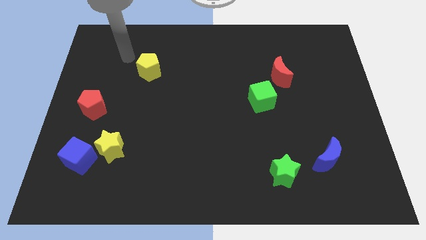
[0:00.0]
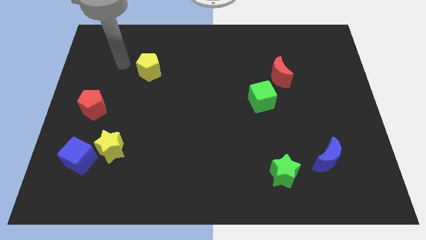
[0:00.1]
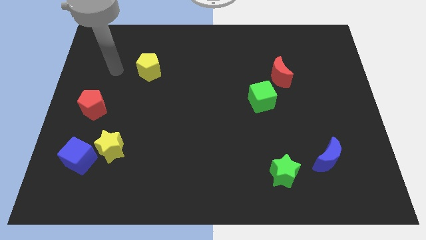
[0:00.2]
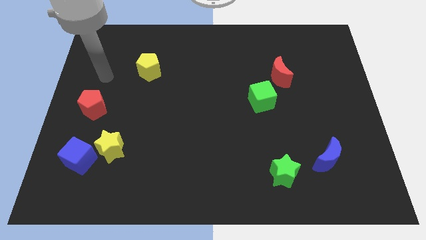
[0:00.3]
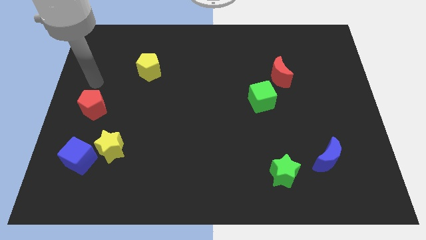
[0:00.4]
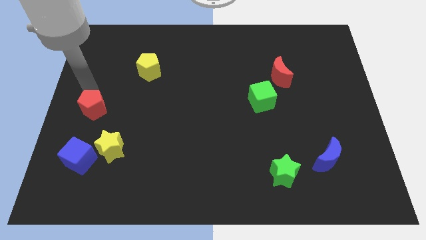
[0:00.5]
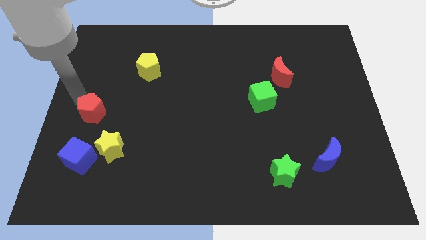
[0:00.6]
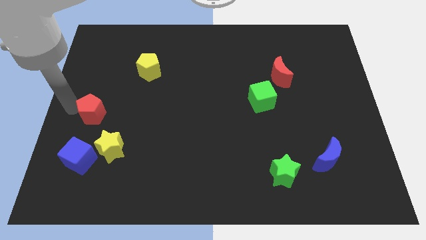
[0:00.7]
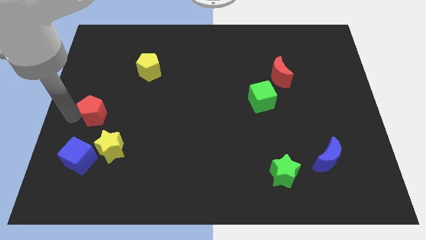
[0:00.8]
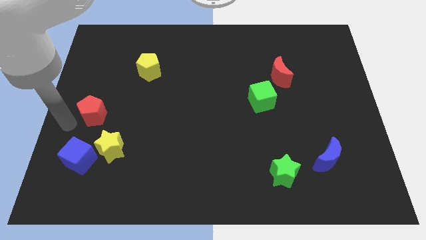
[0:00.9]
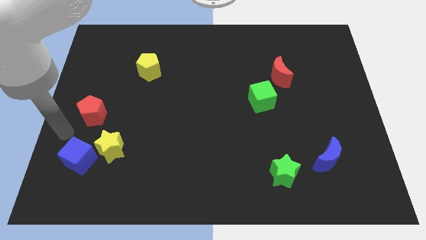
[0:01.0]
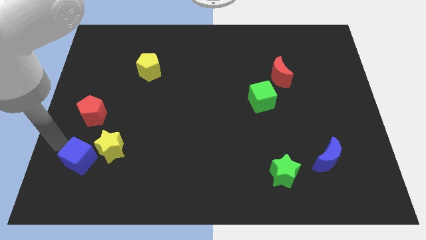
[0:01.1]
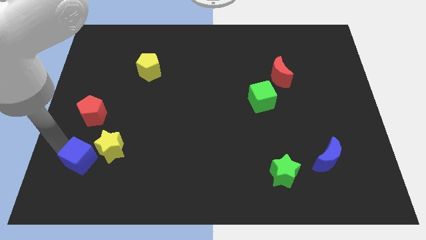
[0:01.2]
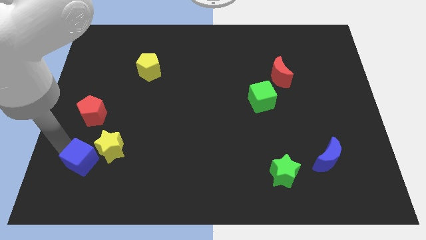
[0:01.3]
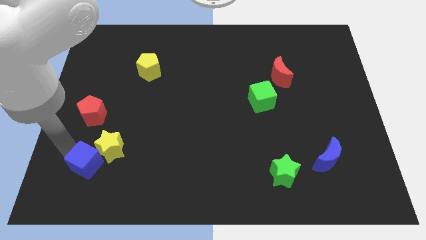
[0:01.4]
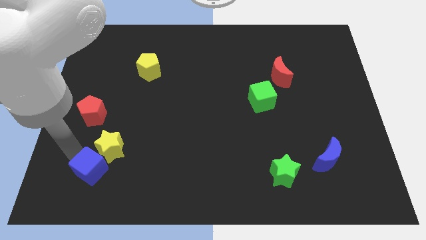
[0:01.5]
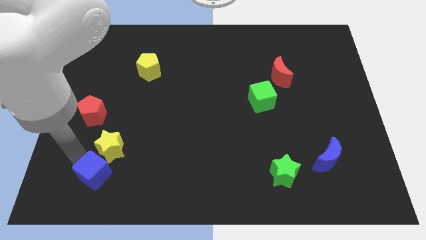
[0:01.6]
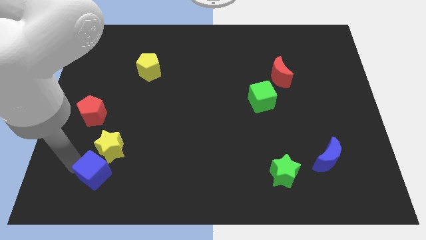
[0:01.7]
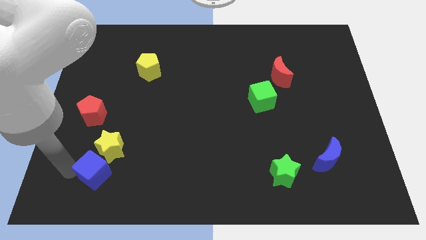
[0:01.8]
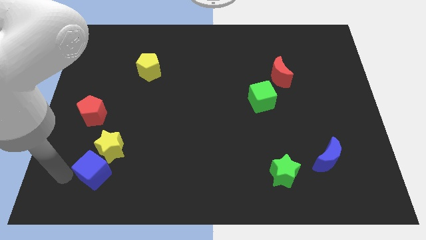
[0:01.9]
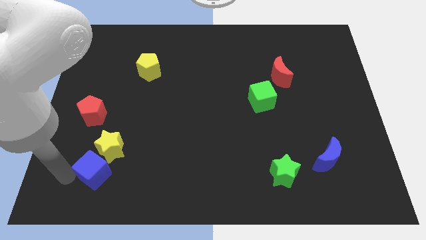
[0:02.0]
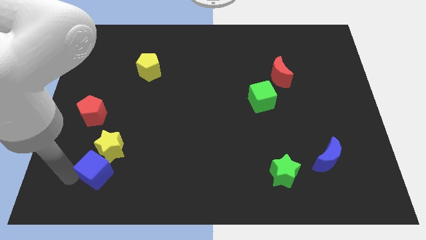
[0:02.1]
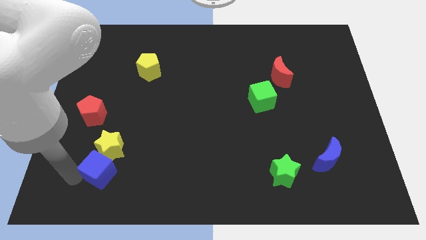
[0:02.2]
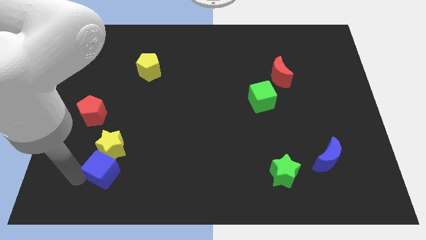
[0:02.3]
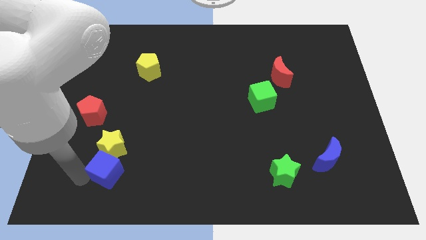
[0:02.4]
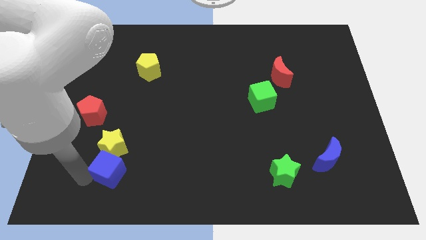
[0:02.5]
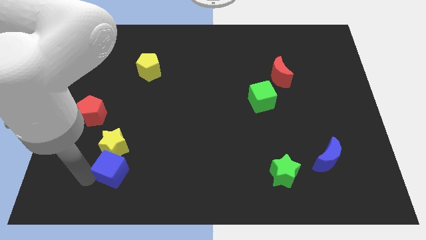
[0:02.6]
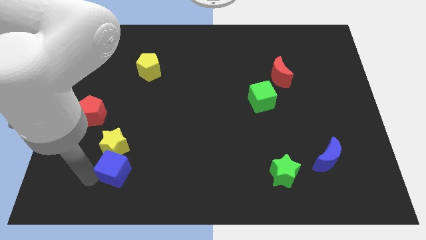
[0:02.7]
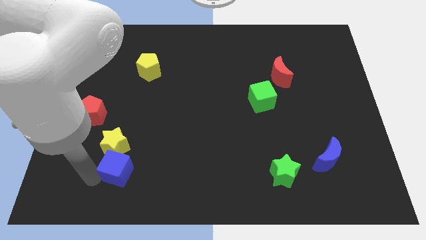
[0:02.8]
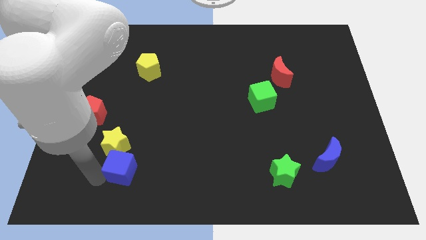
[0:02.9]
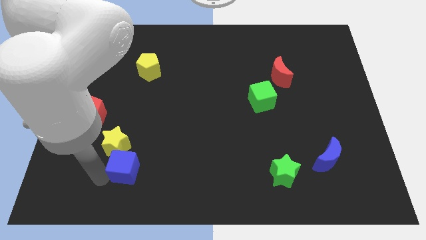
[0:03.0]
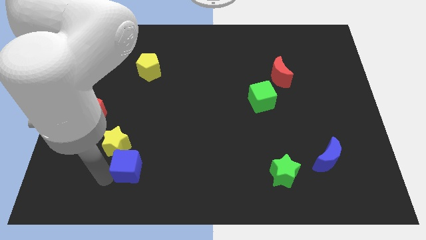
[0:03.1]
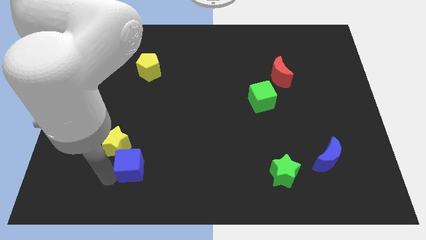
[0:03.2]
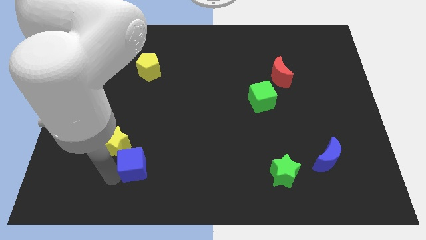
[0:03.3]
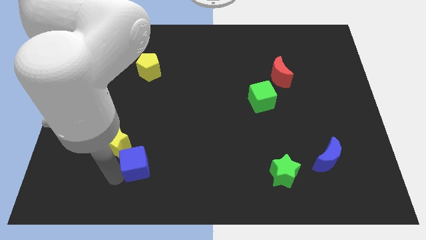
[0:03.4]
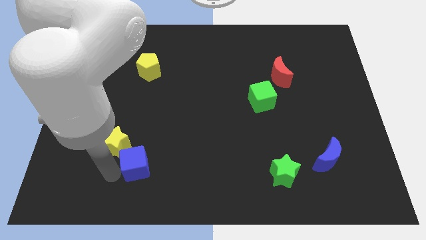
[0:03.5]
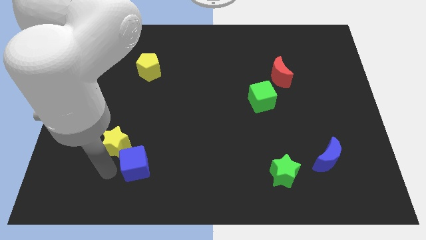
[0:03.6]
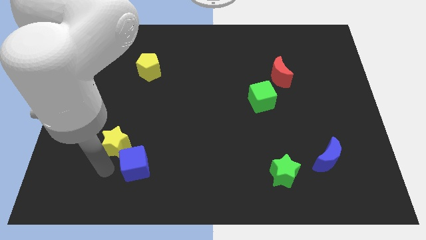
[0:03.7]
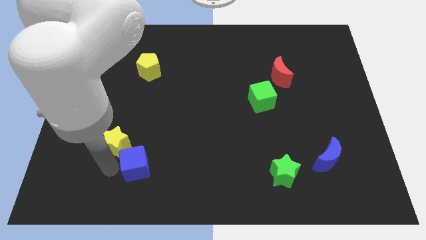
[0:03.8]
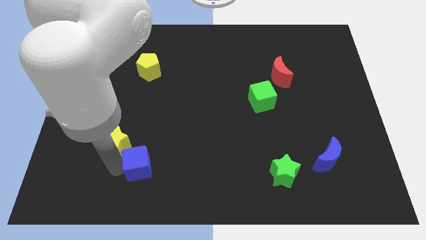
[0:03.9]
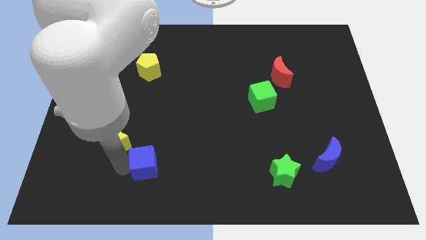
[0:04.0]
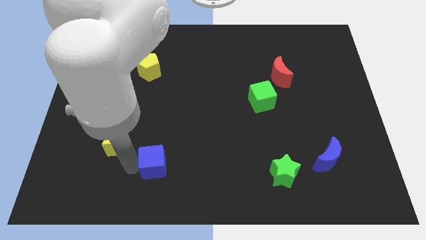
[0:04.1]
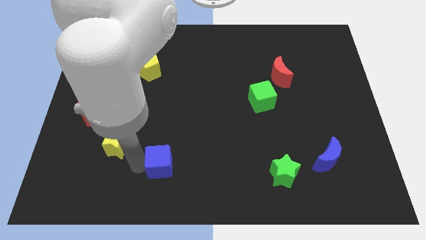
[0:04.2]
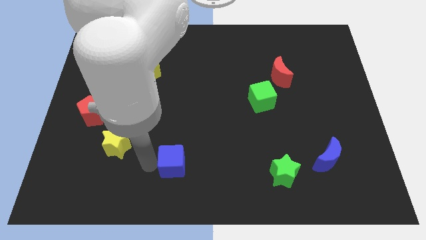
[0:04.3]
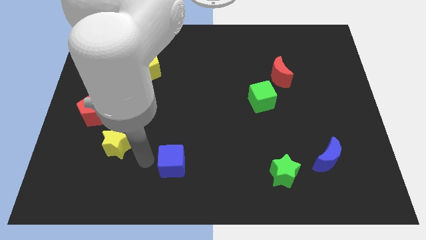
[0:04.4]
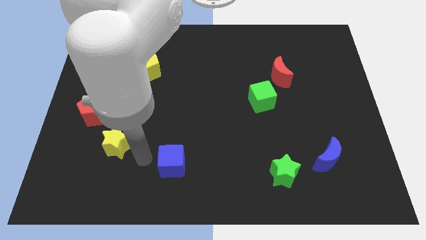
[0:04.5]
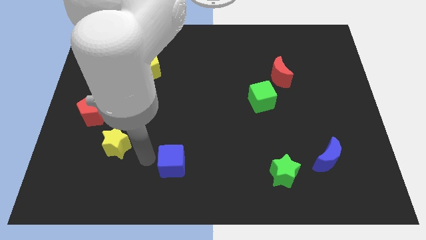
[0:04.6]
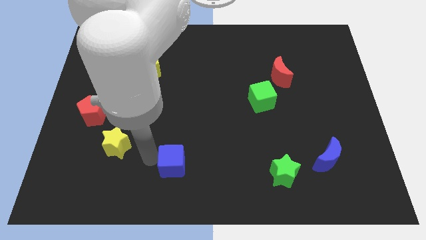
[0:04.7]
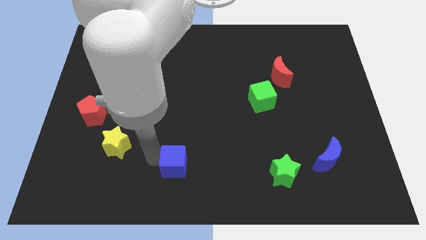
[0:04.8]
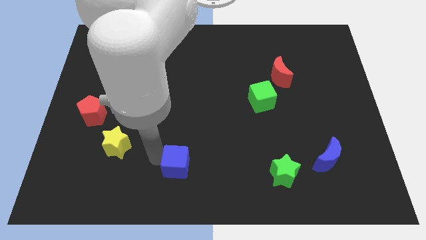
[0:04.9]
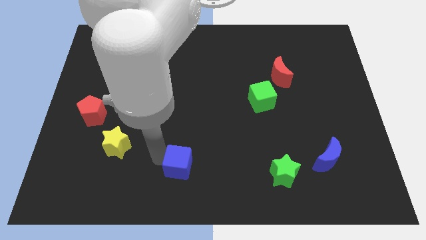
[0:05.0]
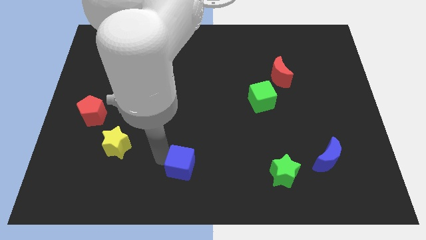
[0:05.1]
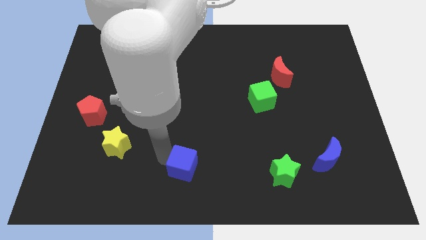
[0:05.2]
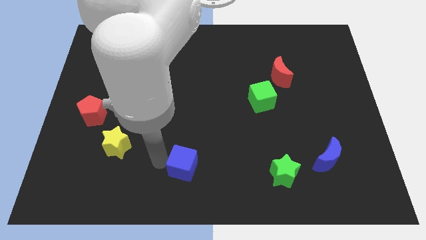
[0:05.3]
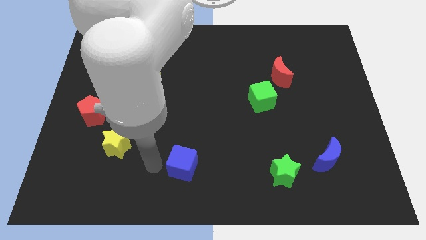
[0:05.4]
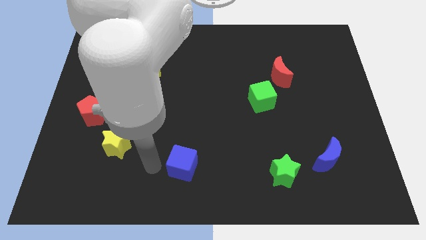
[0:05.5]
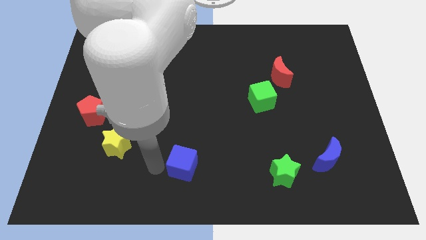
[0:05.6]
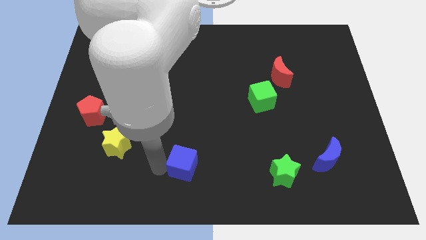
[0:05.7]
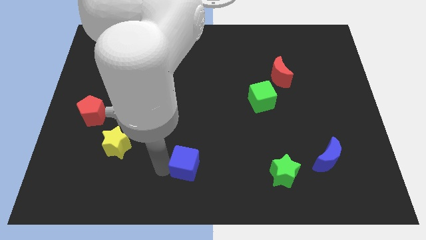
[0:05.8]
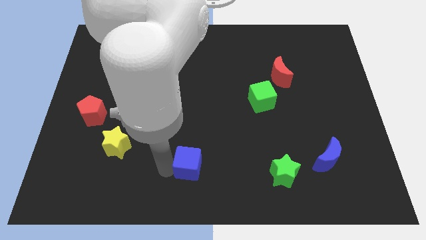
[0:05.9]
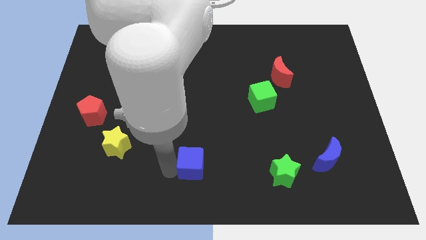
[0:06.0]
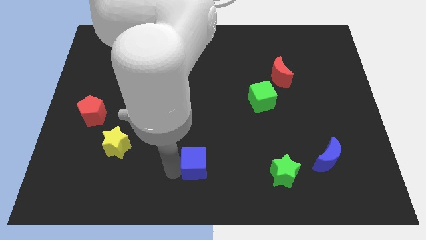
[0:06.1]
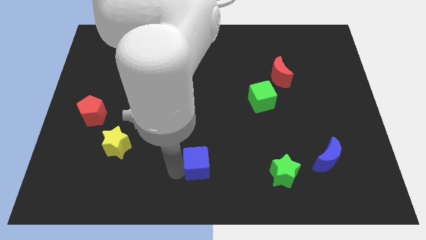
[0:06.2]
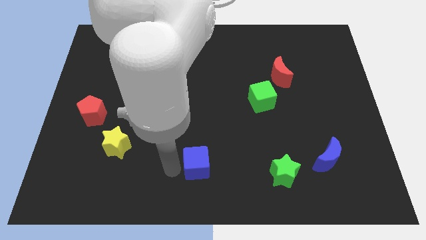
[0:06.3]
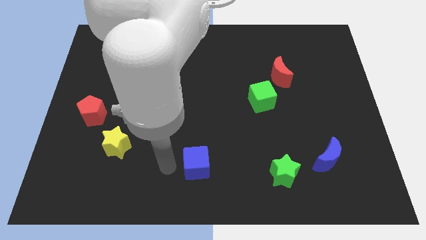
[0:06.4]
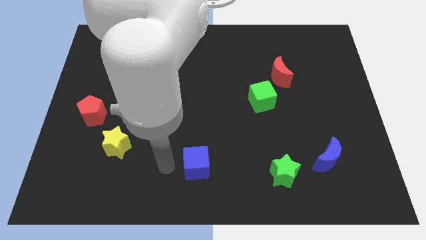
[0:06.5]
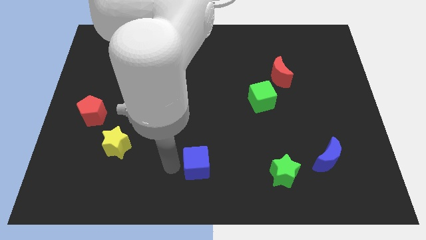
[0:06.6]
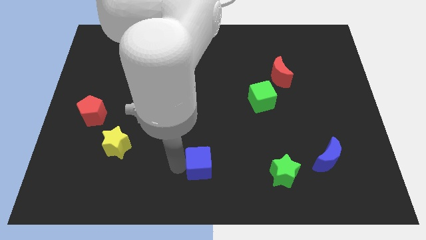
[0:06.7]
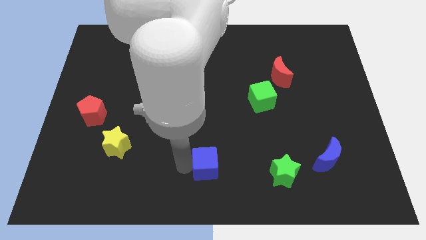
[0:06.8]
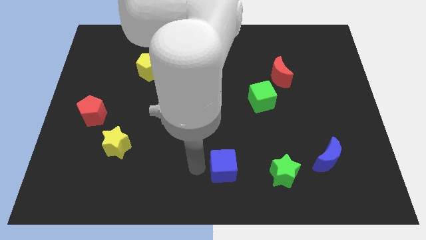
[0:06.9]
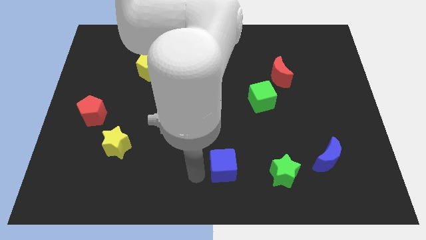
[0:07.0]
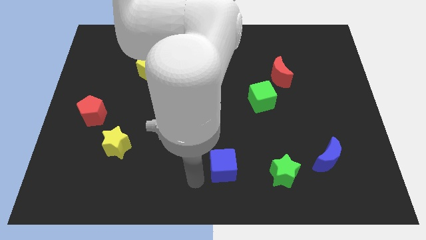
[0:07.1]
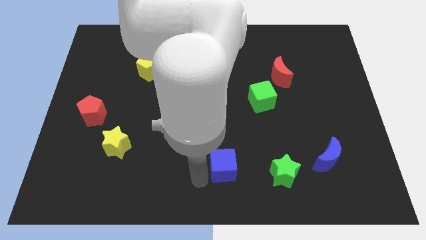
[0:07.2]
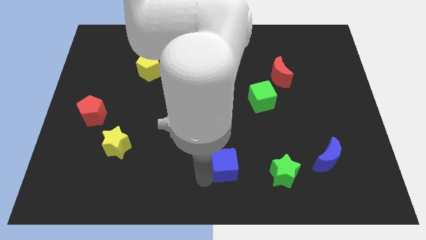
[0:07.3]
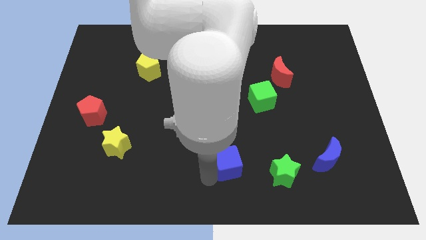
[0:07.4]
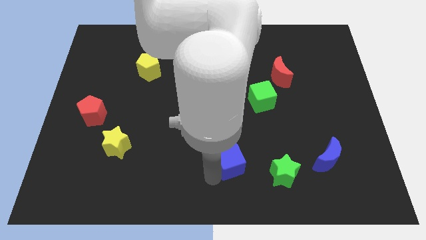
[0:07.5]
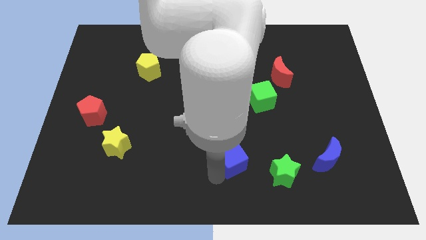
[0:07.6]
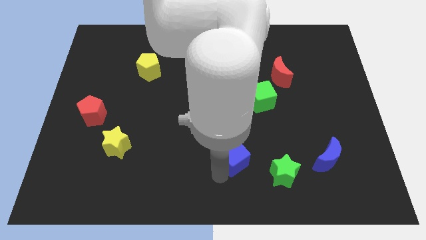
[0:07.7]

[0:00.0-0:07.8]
push the blue cube to the top left side of the green star
